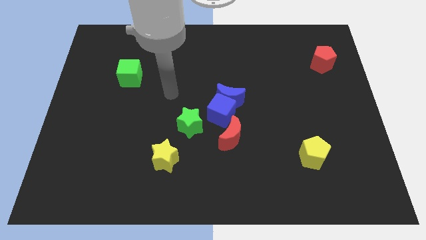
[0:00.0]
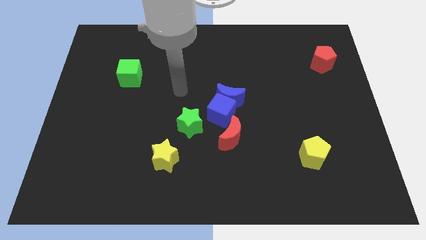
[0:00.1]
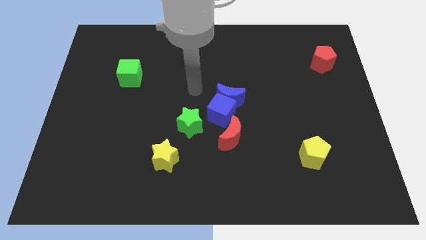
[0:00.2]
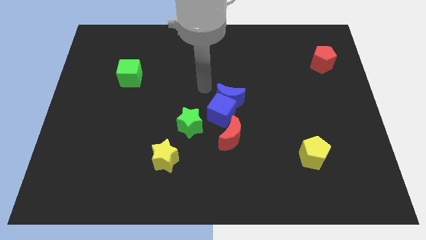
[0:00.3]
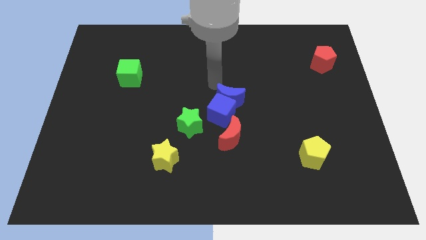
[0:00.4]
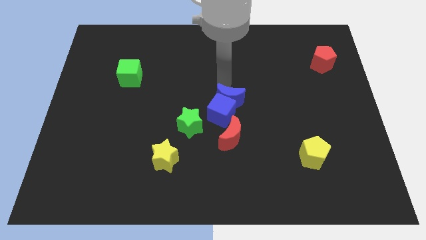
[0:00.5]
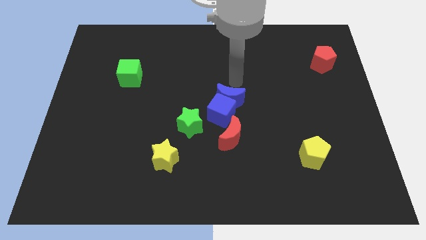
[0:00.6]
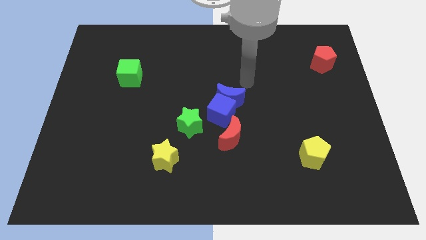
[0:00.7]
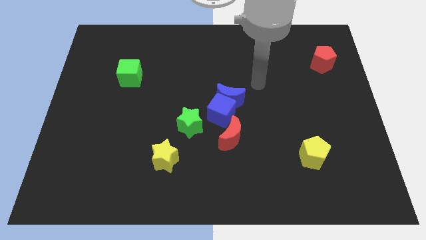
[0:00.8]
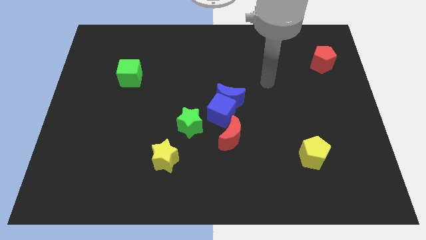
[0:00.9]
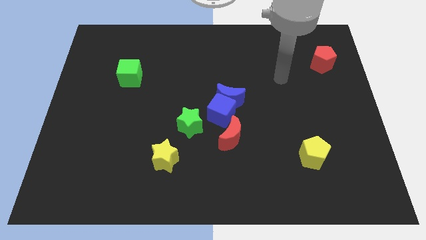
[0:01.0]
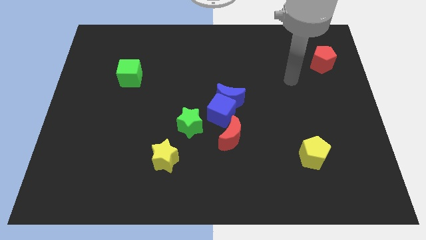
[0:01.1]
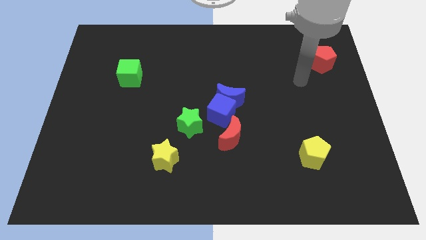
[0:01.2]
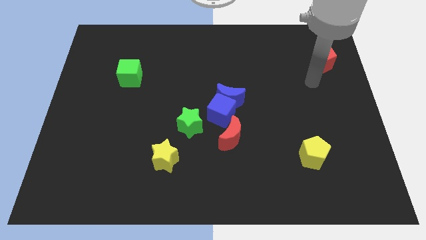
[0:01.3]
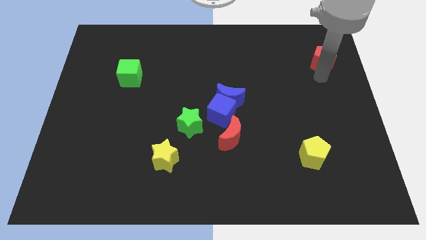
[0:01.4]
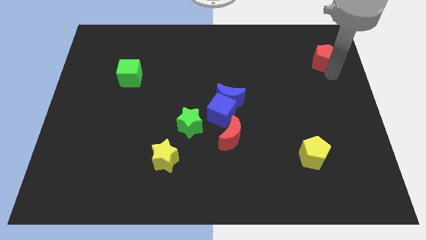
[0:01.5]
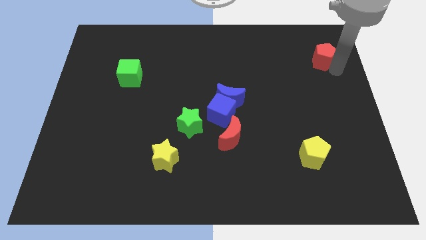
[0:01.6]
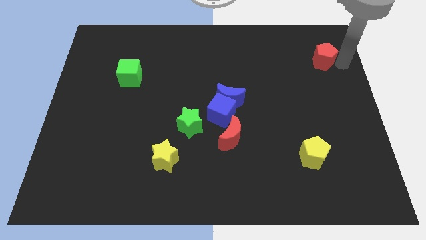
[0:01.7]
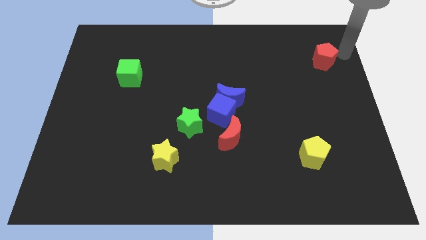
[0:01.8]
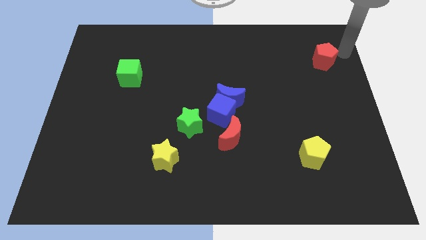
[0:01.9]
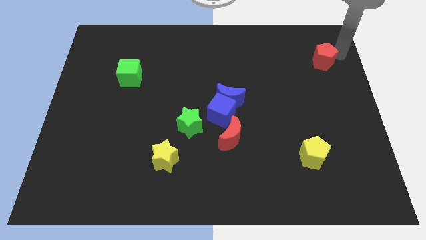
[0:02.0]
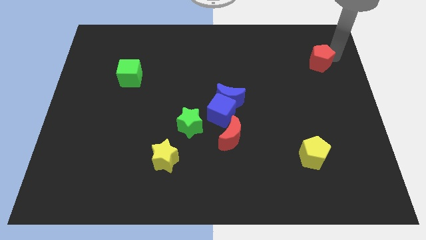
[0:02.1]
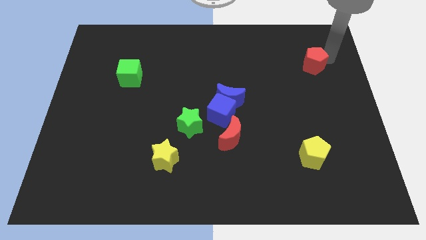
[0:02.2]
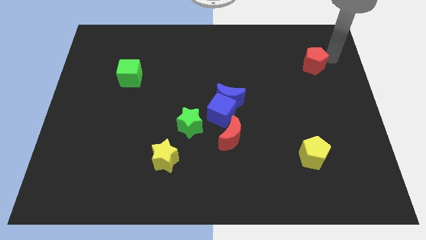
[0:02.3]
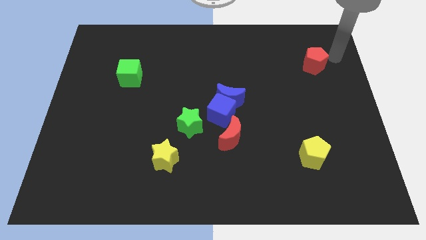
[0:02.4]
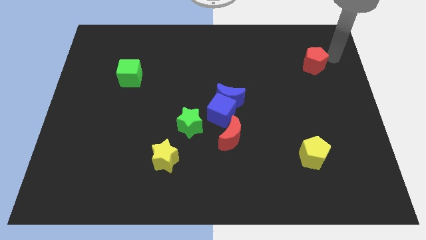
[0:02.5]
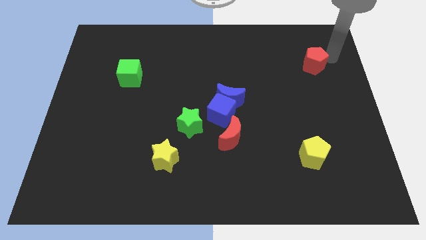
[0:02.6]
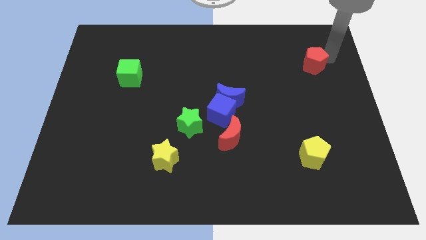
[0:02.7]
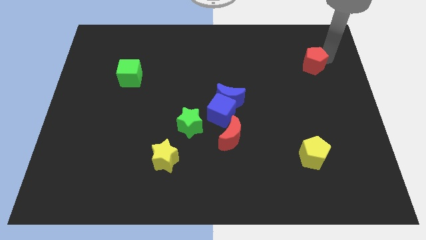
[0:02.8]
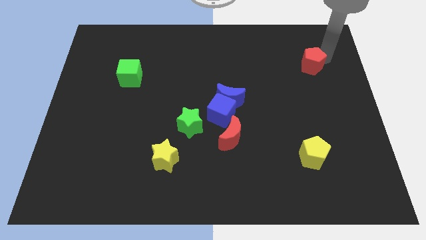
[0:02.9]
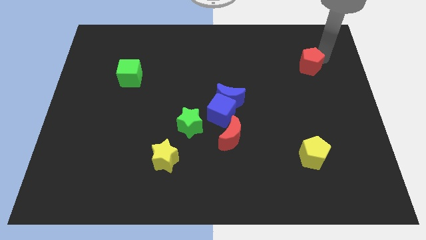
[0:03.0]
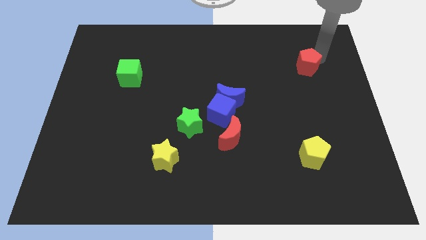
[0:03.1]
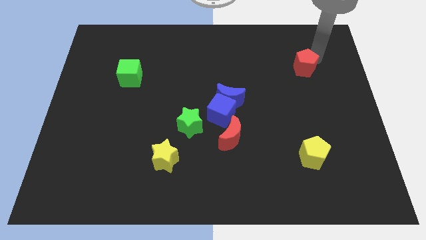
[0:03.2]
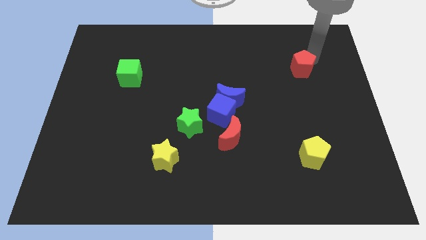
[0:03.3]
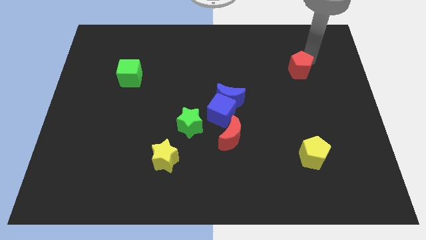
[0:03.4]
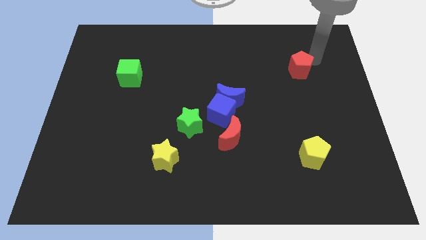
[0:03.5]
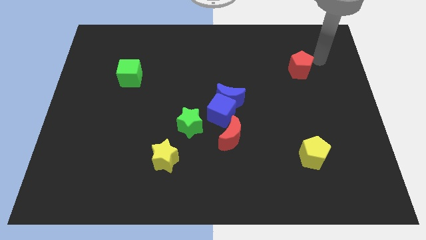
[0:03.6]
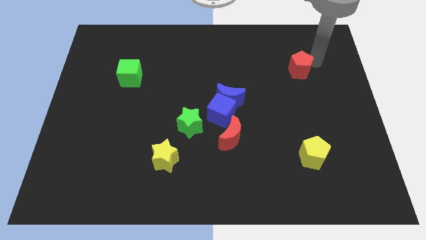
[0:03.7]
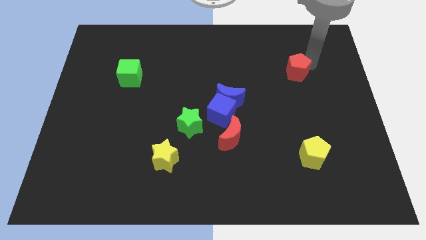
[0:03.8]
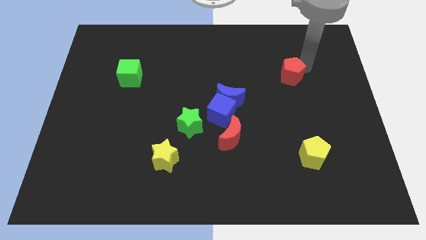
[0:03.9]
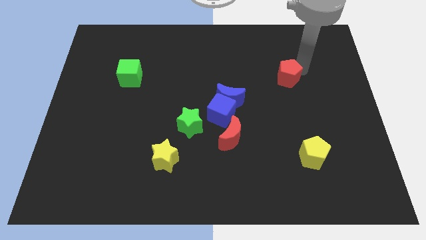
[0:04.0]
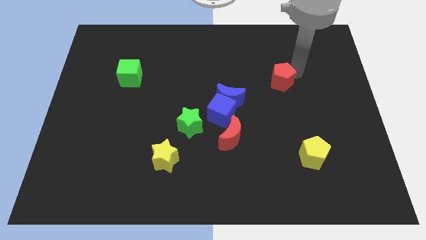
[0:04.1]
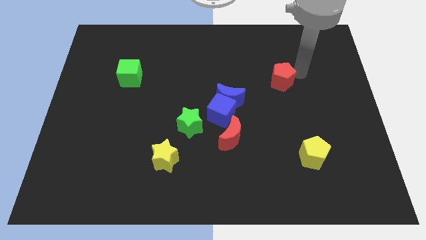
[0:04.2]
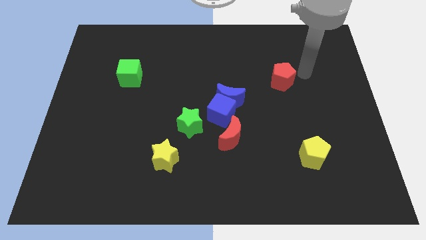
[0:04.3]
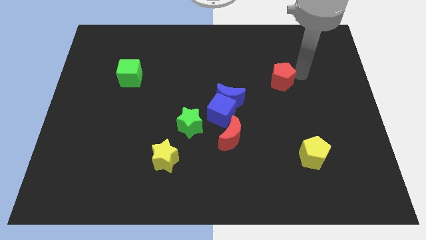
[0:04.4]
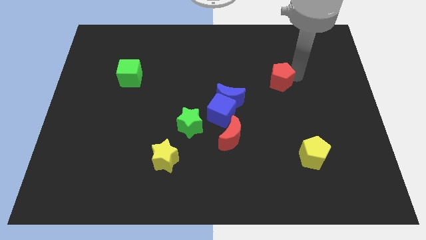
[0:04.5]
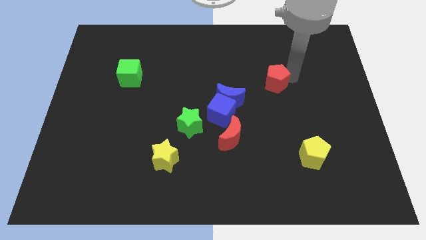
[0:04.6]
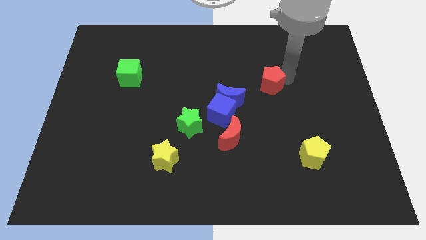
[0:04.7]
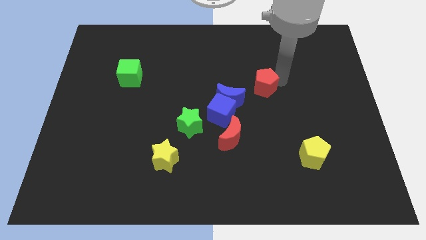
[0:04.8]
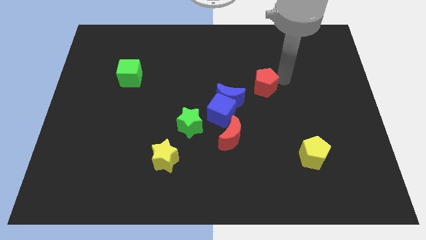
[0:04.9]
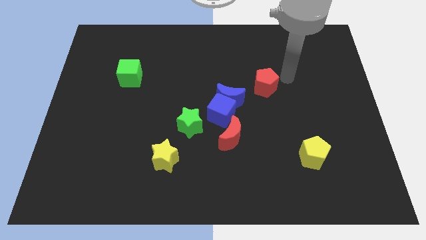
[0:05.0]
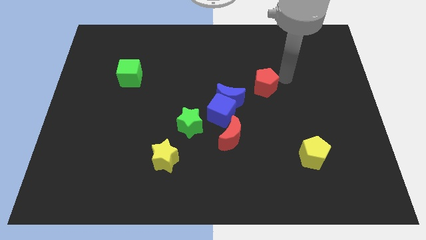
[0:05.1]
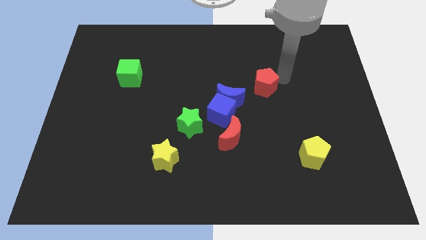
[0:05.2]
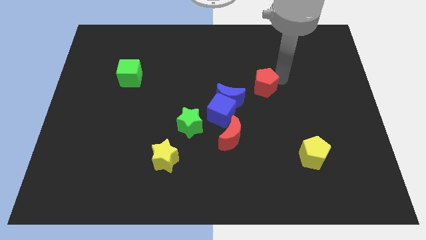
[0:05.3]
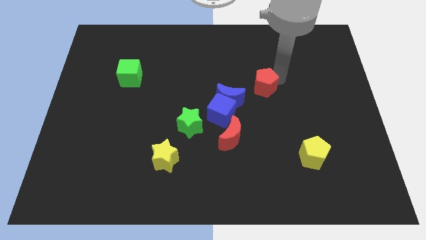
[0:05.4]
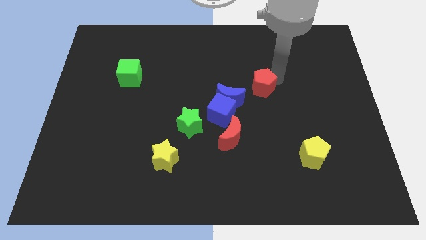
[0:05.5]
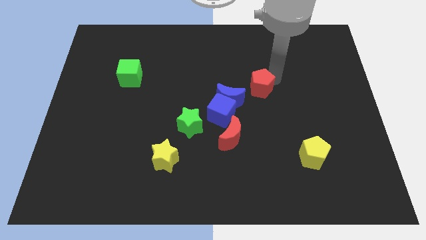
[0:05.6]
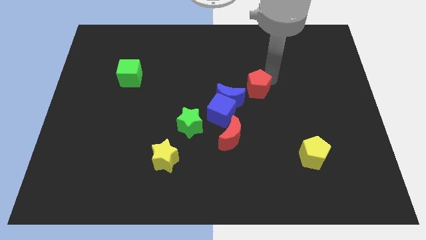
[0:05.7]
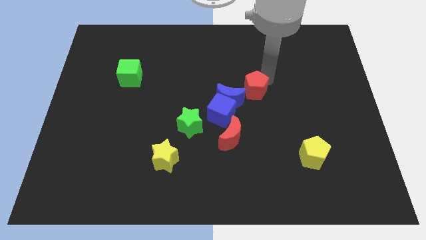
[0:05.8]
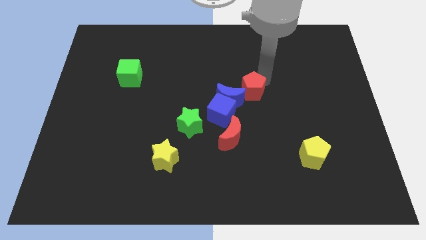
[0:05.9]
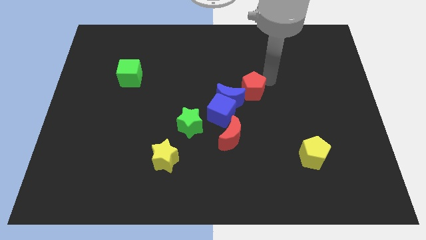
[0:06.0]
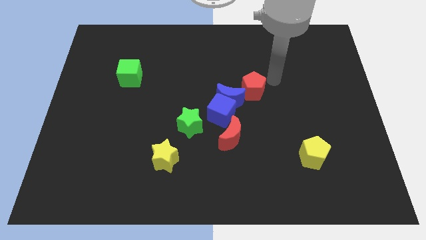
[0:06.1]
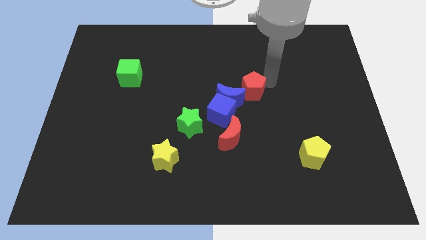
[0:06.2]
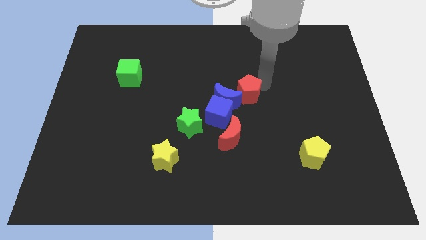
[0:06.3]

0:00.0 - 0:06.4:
put the red pentagon close to the blue moon

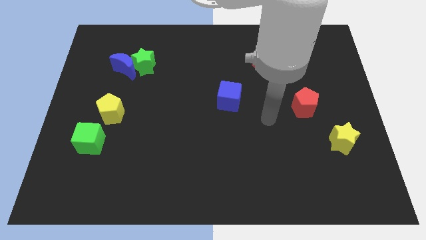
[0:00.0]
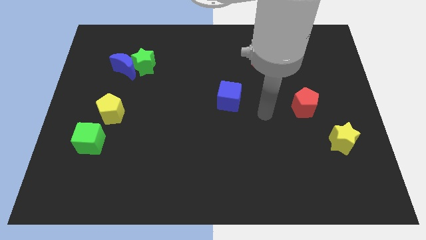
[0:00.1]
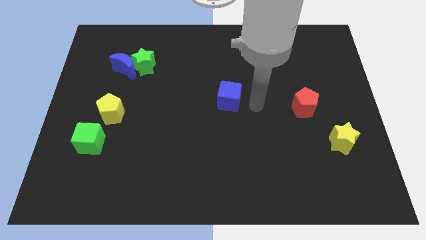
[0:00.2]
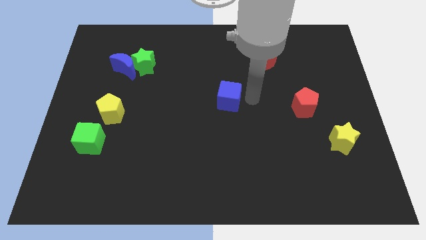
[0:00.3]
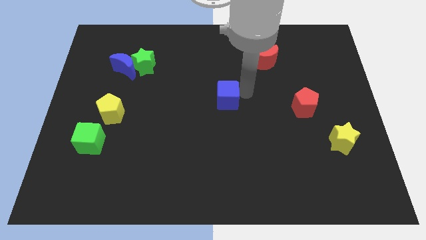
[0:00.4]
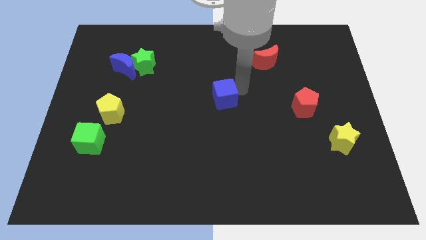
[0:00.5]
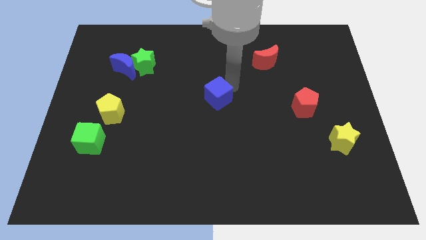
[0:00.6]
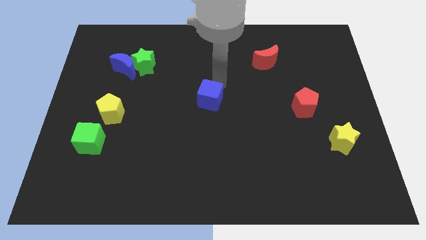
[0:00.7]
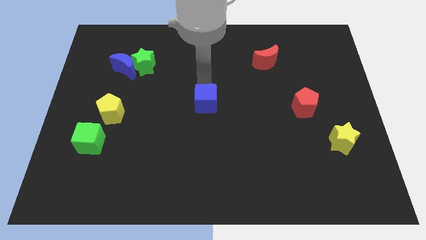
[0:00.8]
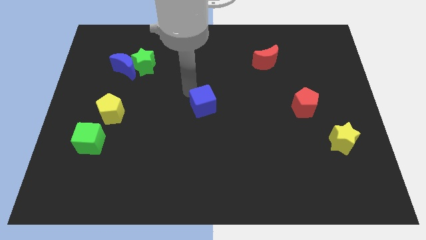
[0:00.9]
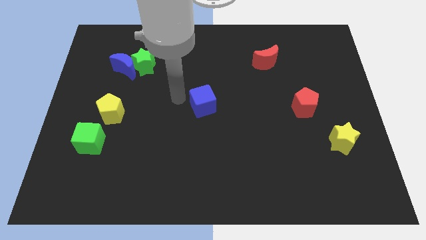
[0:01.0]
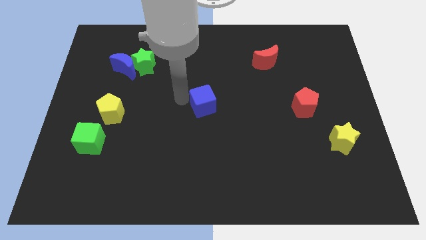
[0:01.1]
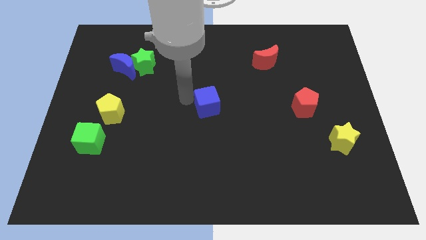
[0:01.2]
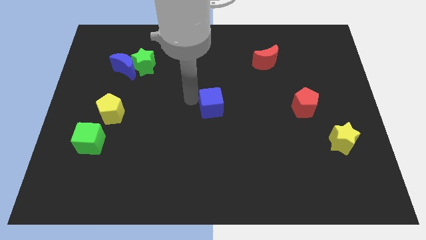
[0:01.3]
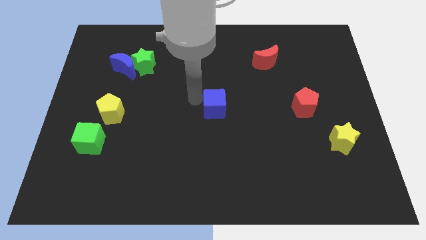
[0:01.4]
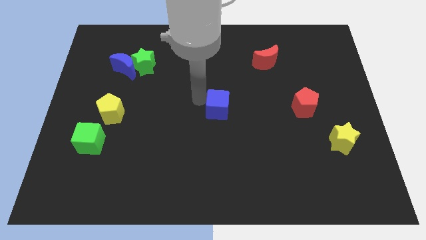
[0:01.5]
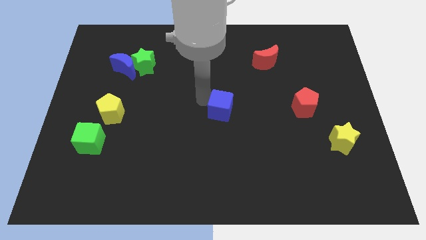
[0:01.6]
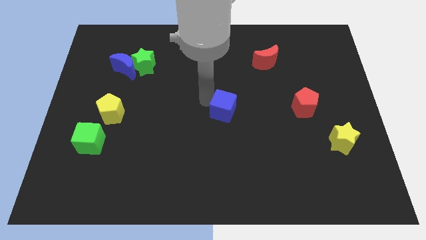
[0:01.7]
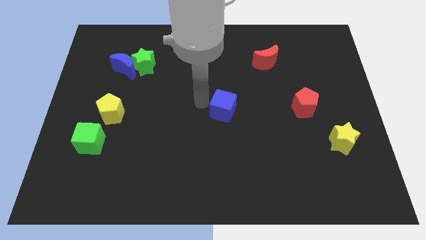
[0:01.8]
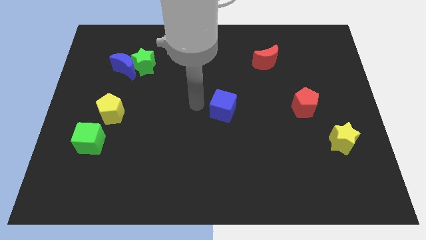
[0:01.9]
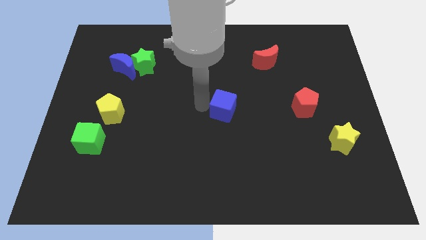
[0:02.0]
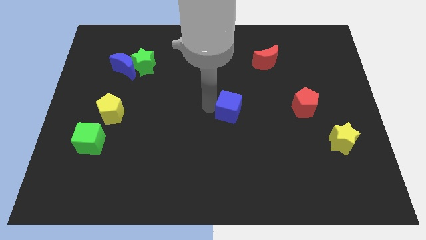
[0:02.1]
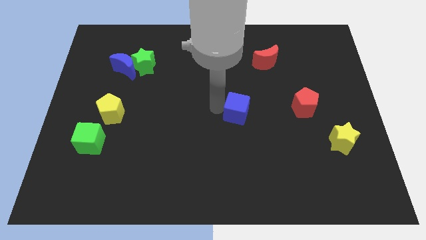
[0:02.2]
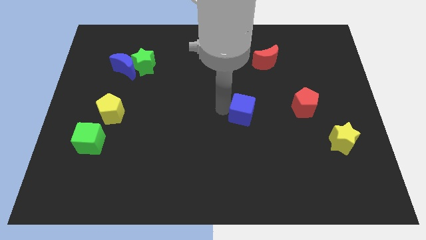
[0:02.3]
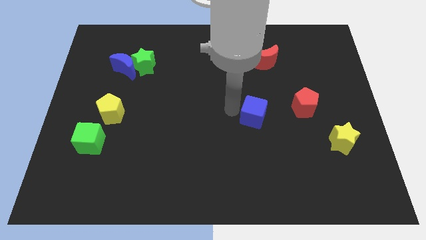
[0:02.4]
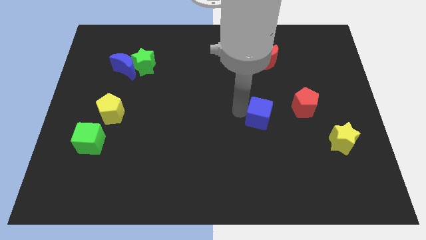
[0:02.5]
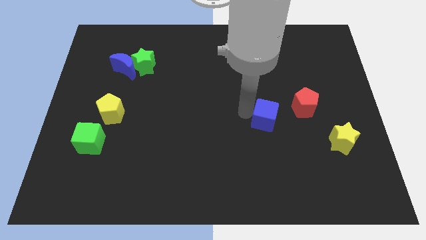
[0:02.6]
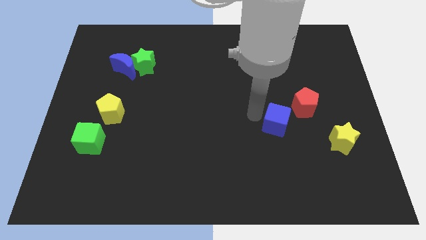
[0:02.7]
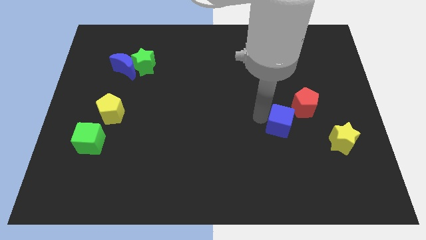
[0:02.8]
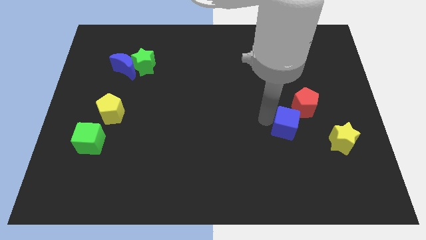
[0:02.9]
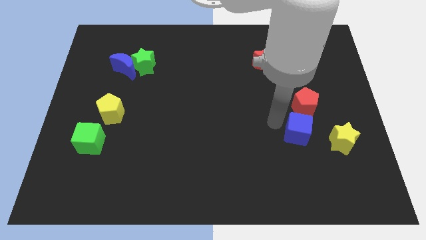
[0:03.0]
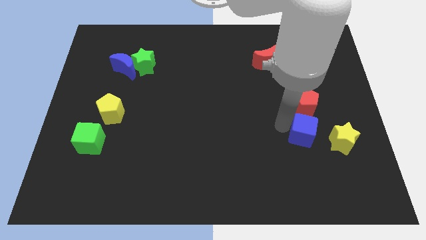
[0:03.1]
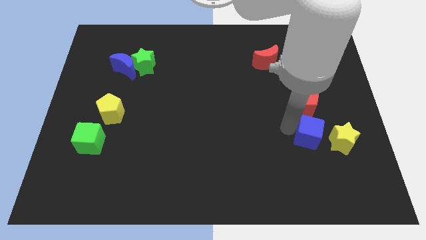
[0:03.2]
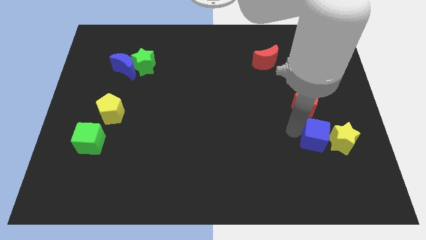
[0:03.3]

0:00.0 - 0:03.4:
slide the blue cube towards the yellow star
